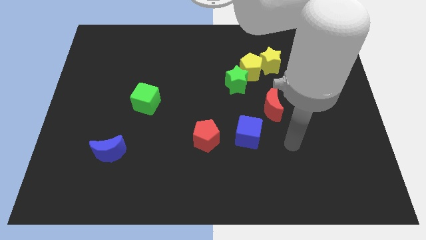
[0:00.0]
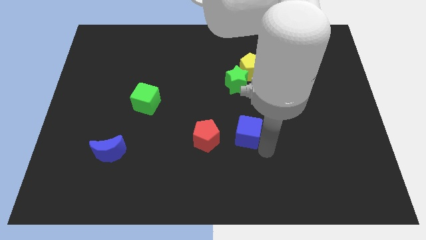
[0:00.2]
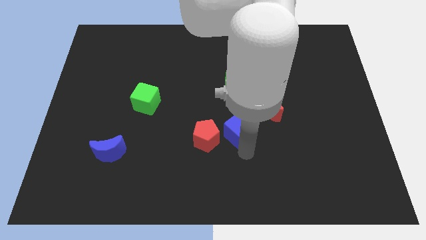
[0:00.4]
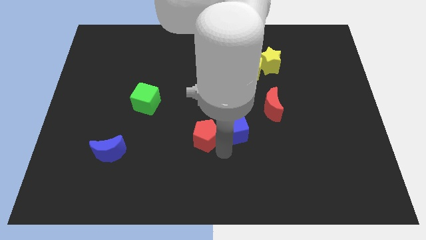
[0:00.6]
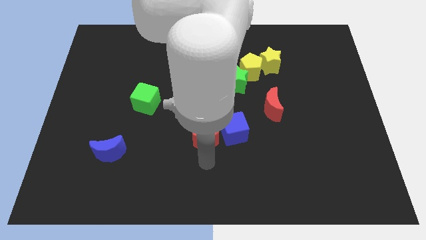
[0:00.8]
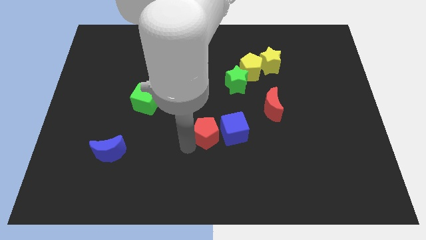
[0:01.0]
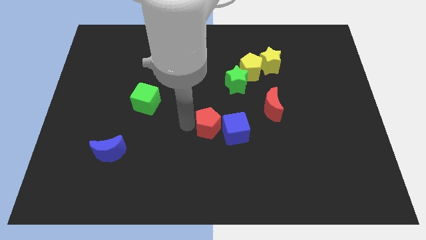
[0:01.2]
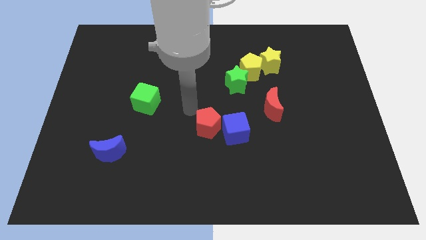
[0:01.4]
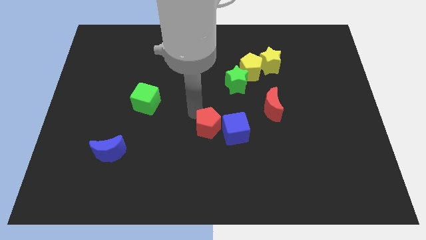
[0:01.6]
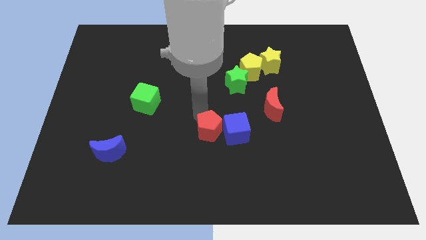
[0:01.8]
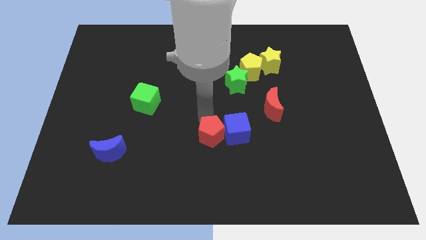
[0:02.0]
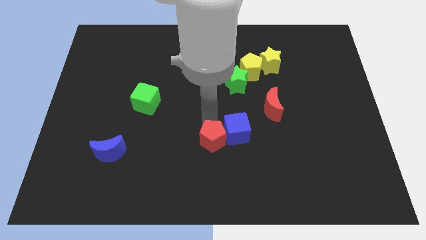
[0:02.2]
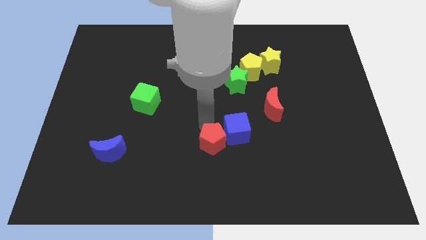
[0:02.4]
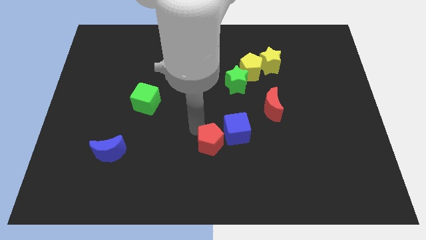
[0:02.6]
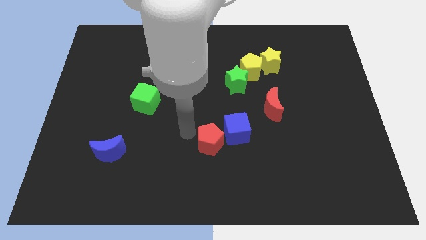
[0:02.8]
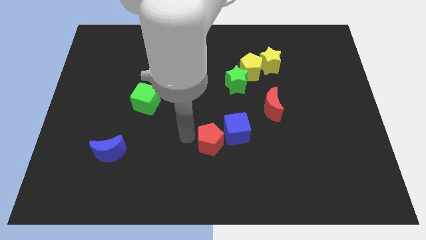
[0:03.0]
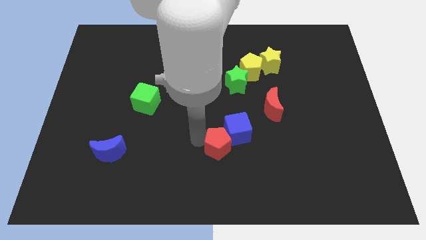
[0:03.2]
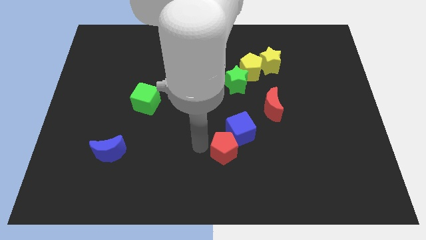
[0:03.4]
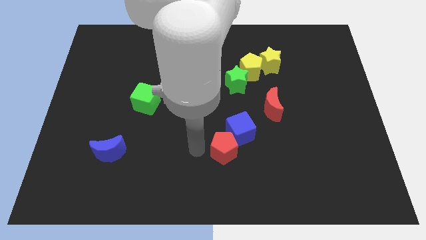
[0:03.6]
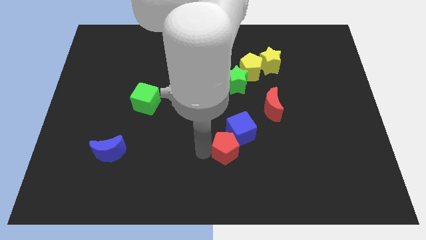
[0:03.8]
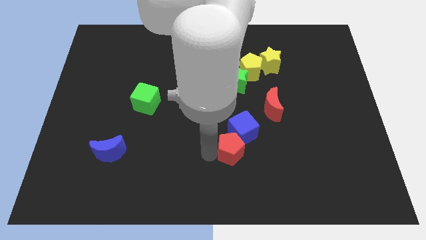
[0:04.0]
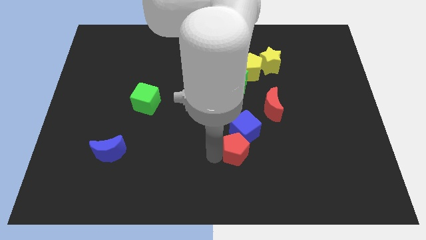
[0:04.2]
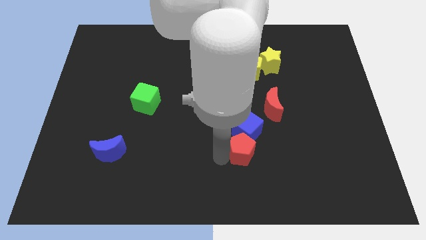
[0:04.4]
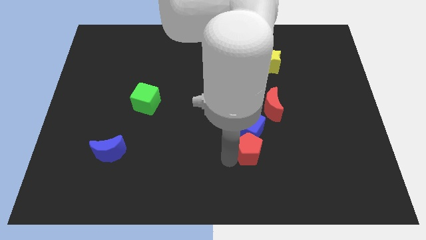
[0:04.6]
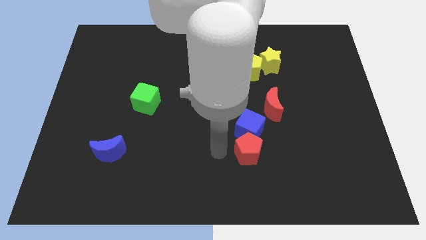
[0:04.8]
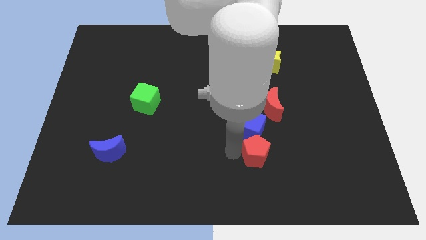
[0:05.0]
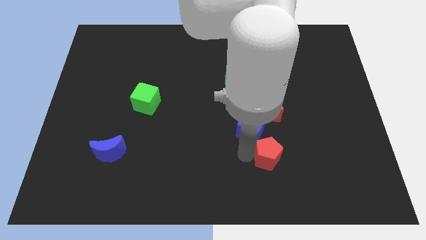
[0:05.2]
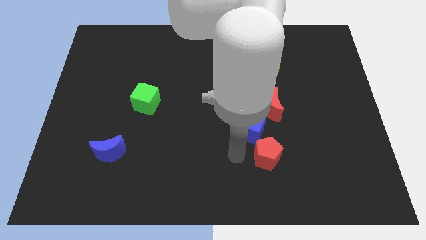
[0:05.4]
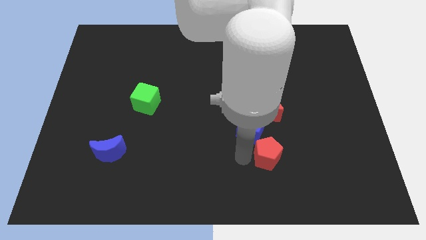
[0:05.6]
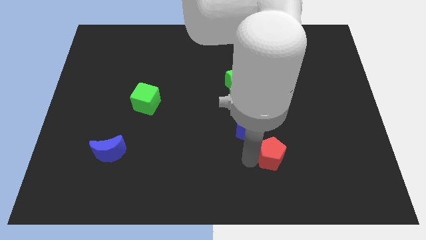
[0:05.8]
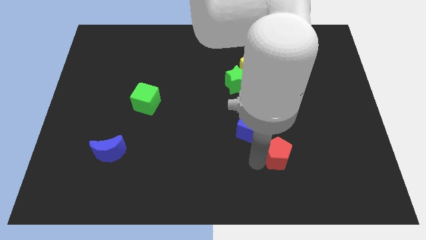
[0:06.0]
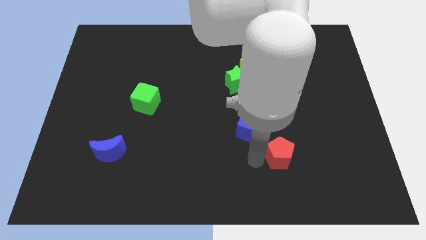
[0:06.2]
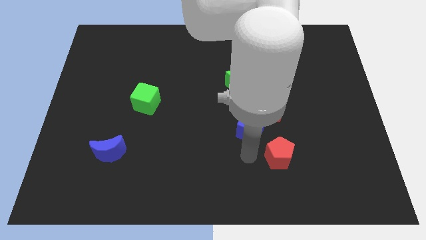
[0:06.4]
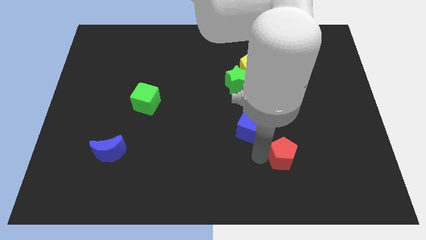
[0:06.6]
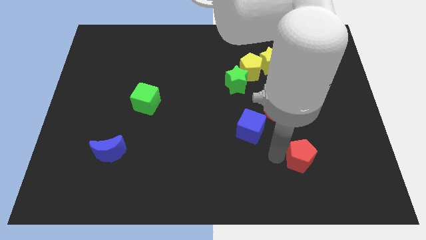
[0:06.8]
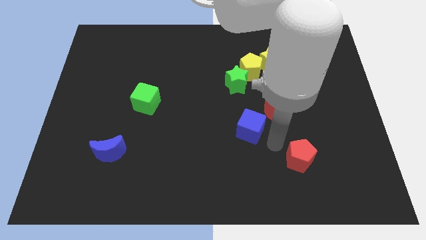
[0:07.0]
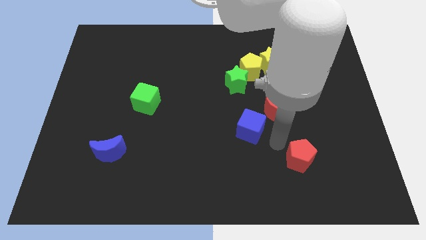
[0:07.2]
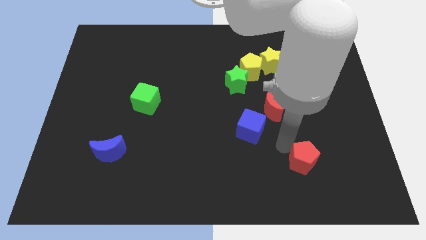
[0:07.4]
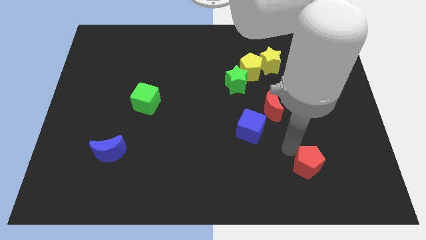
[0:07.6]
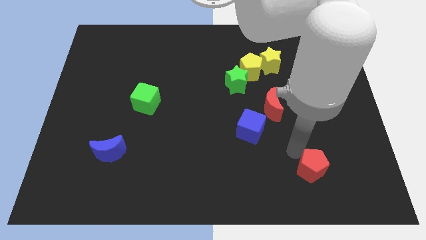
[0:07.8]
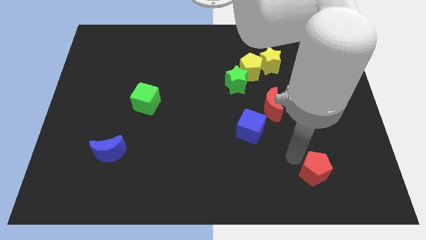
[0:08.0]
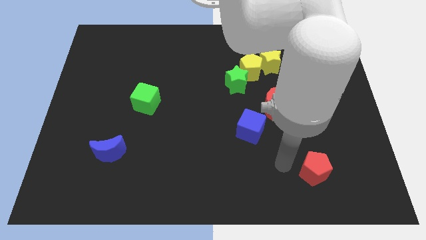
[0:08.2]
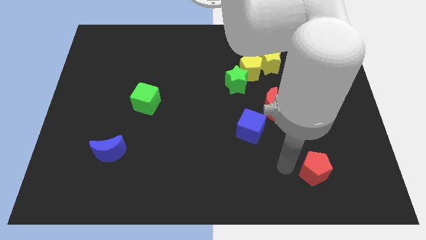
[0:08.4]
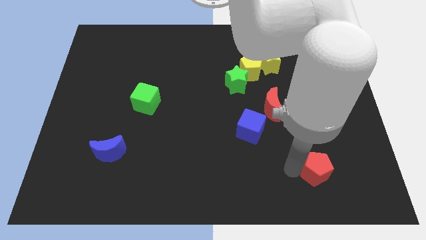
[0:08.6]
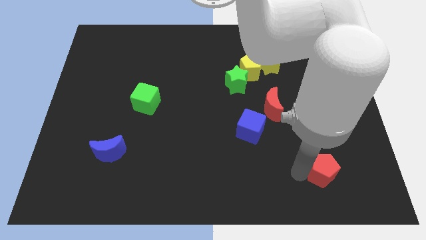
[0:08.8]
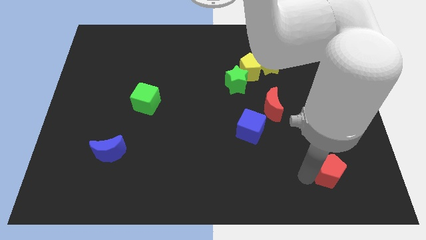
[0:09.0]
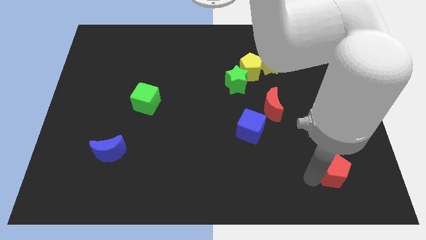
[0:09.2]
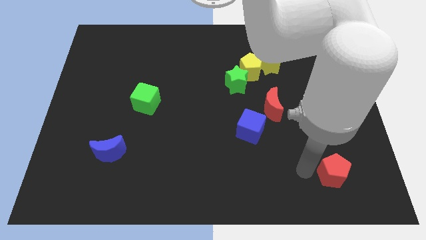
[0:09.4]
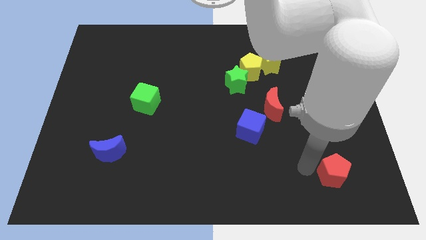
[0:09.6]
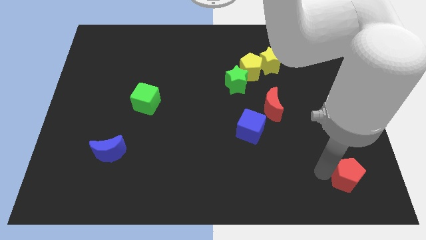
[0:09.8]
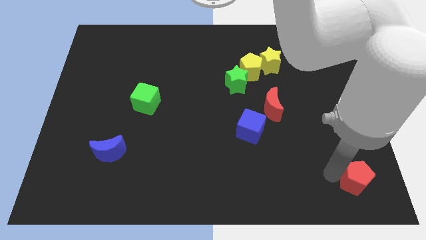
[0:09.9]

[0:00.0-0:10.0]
slide the red pentagon to the lower right corner

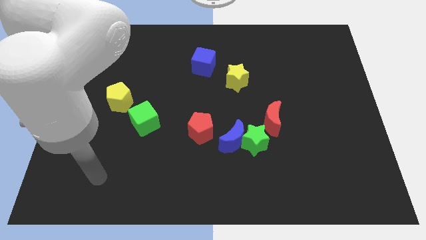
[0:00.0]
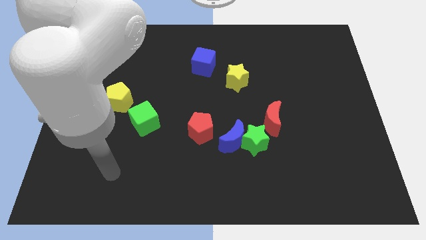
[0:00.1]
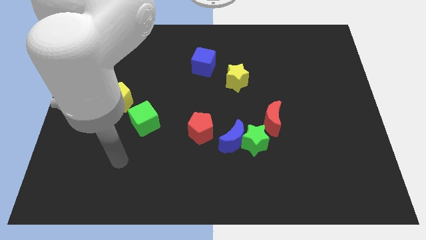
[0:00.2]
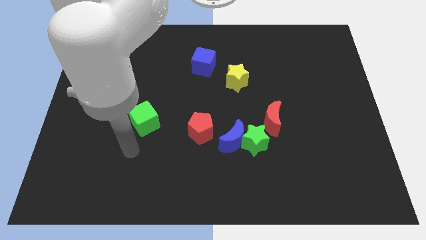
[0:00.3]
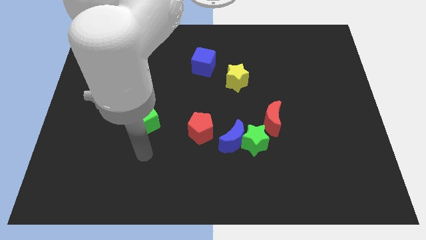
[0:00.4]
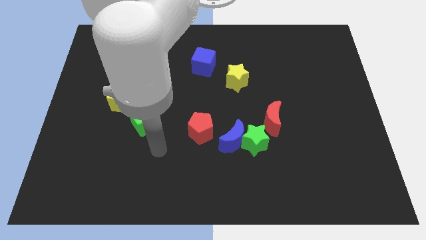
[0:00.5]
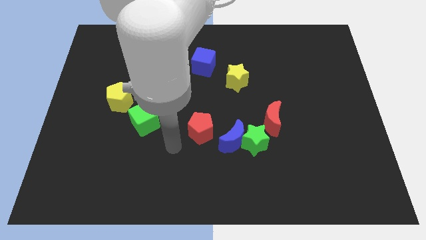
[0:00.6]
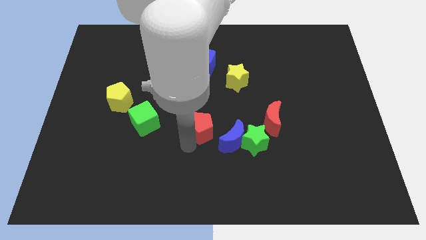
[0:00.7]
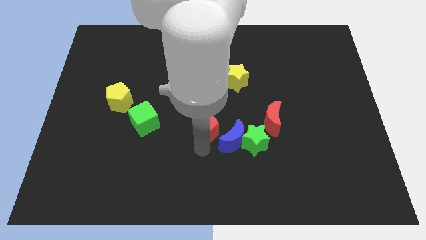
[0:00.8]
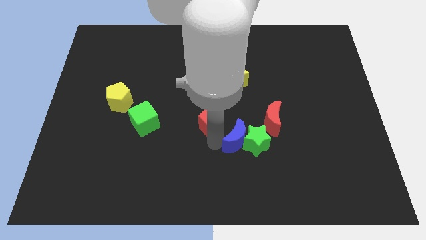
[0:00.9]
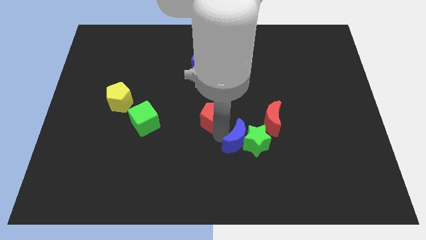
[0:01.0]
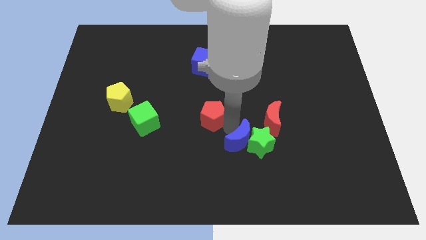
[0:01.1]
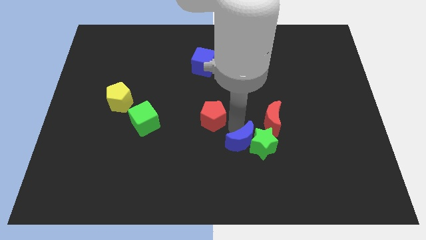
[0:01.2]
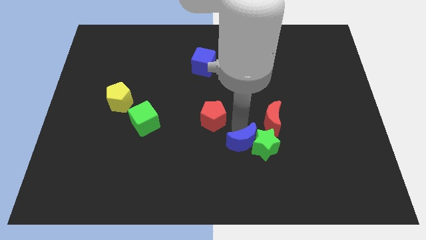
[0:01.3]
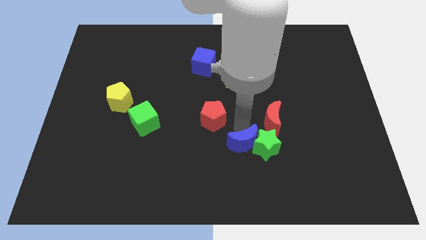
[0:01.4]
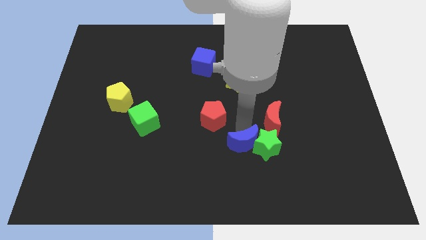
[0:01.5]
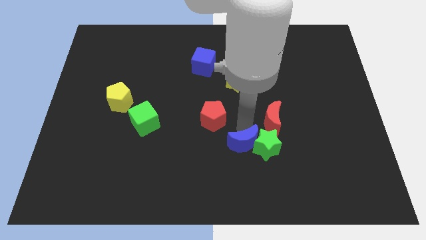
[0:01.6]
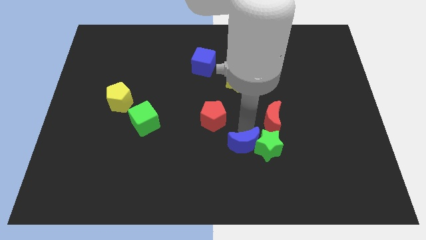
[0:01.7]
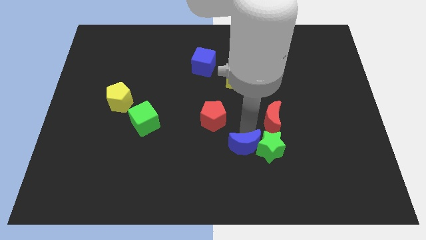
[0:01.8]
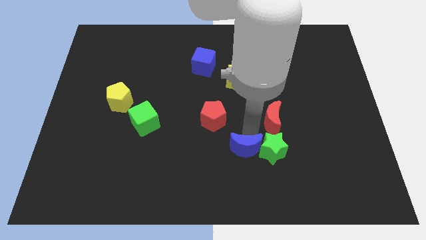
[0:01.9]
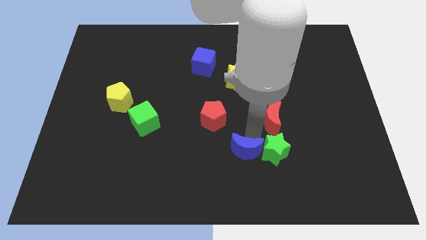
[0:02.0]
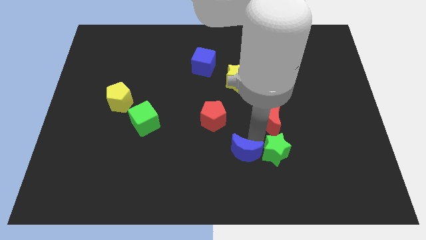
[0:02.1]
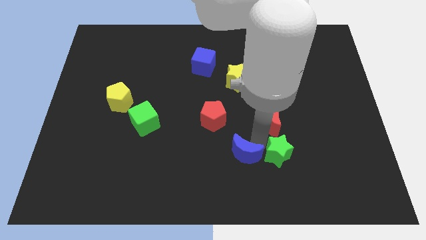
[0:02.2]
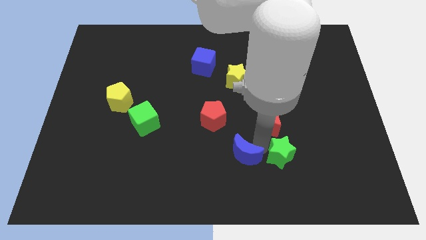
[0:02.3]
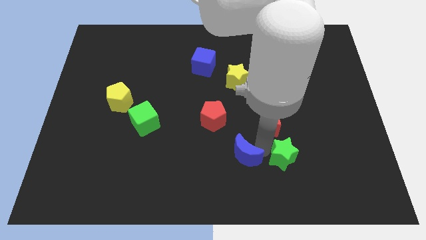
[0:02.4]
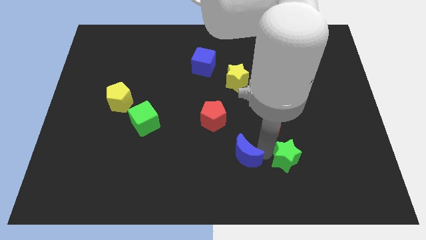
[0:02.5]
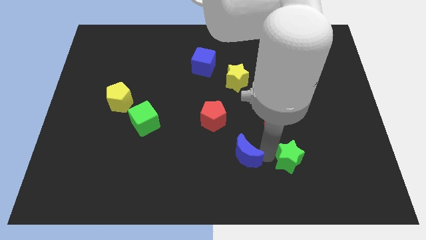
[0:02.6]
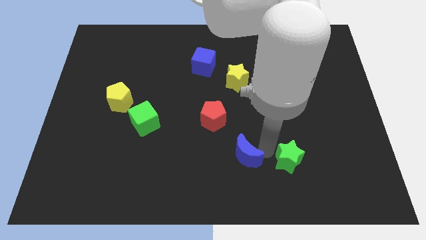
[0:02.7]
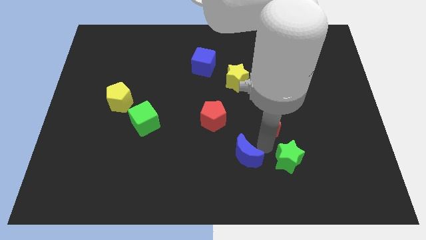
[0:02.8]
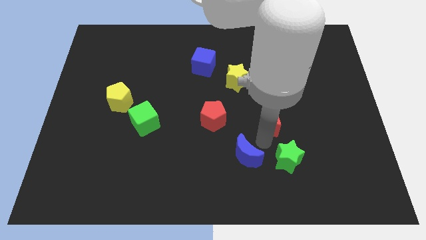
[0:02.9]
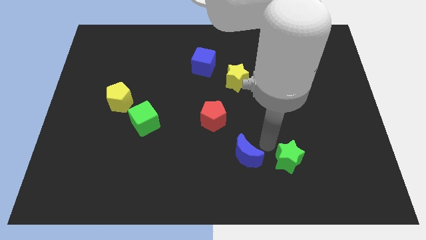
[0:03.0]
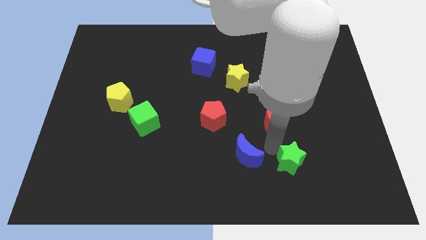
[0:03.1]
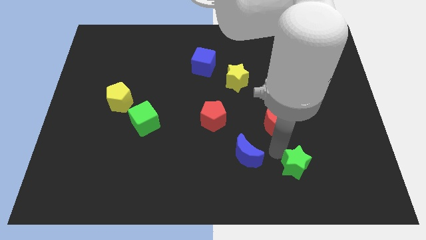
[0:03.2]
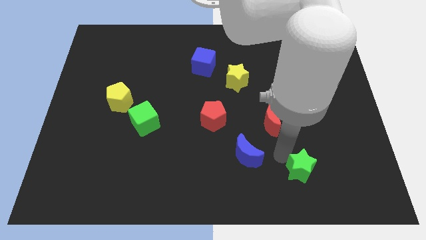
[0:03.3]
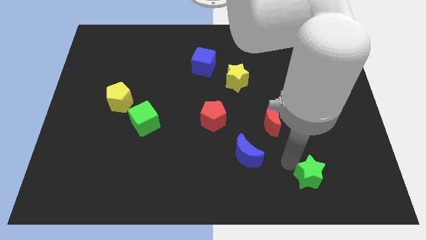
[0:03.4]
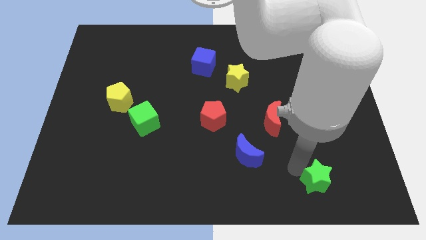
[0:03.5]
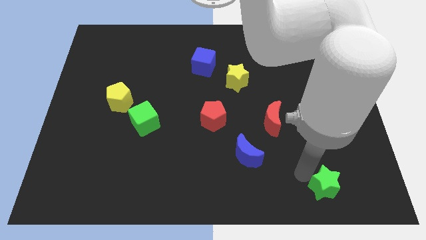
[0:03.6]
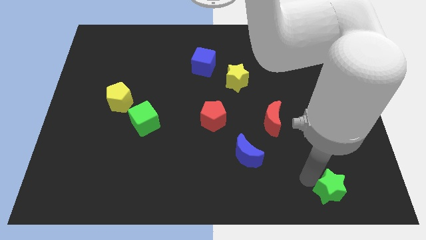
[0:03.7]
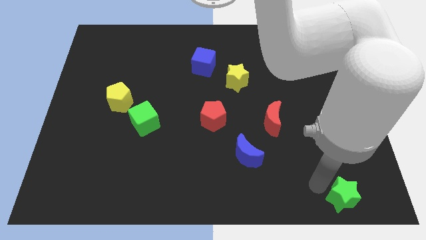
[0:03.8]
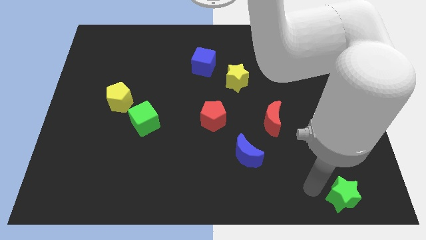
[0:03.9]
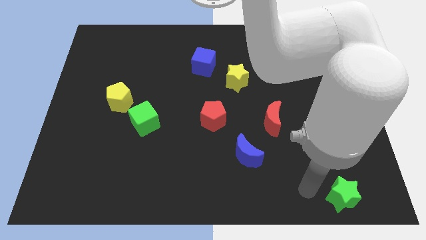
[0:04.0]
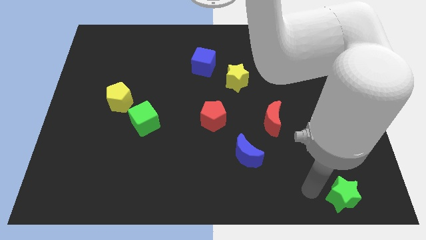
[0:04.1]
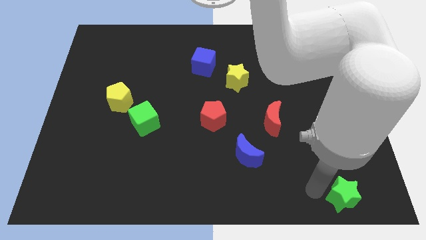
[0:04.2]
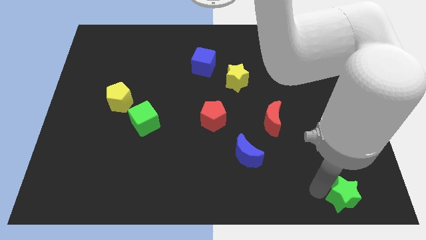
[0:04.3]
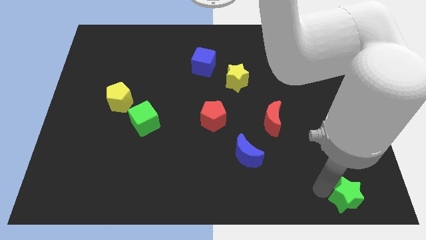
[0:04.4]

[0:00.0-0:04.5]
push the green star to the bottom right corner
